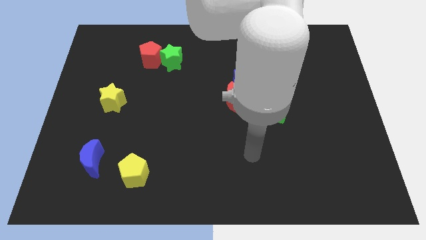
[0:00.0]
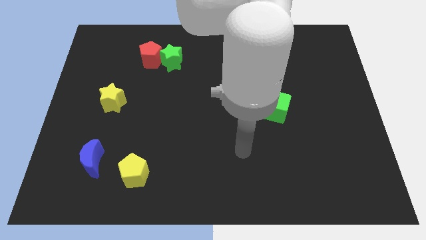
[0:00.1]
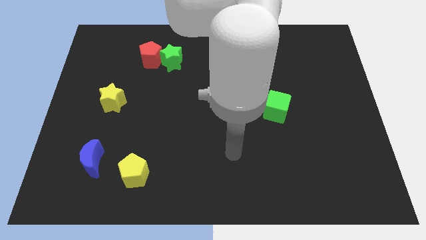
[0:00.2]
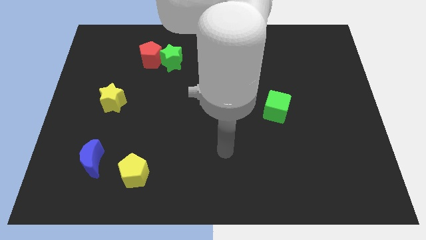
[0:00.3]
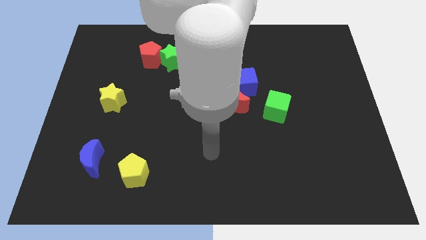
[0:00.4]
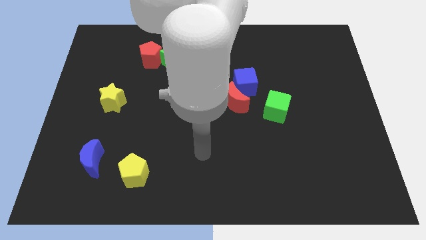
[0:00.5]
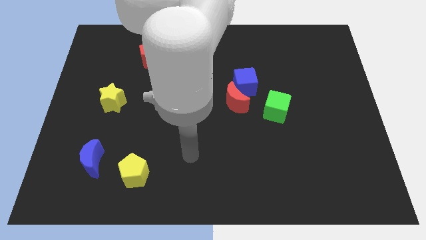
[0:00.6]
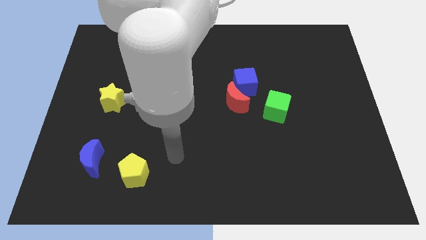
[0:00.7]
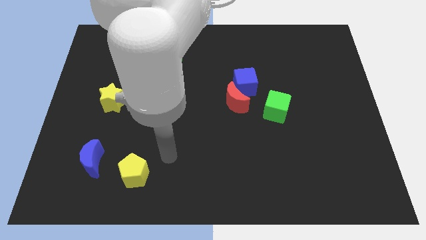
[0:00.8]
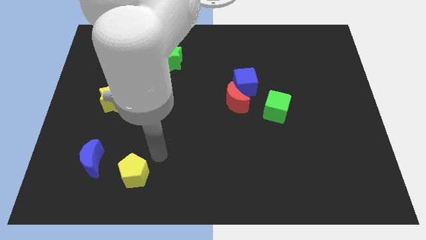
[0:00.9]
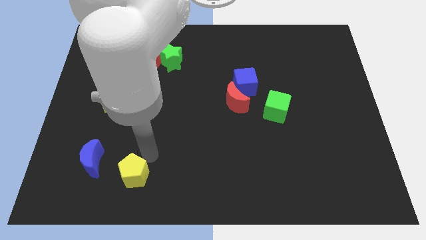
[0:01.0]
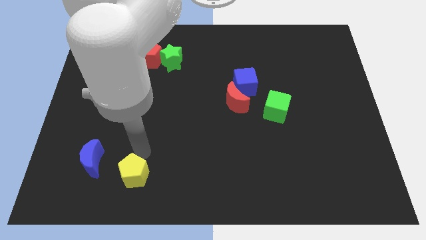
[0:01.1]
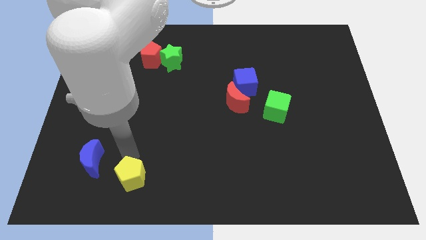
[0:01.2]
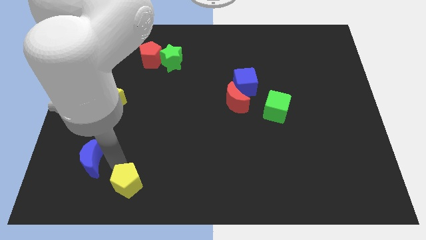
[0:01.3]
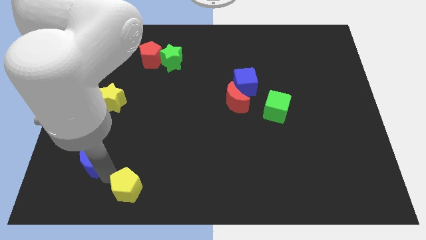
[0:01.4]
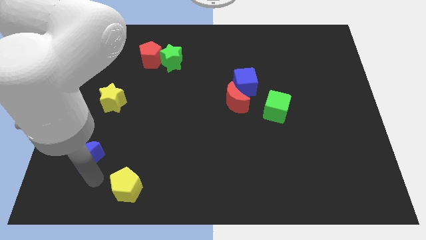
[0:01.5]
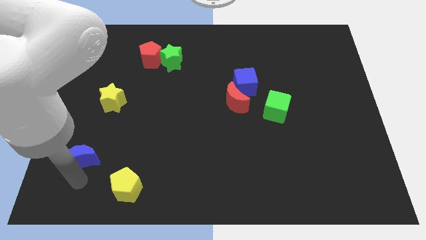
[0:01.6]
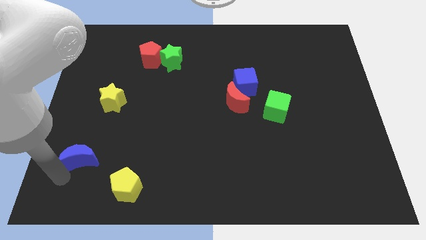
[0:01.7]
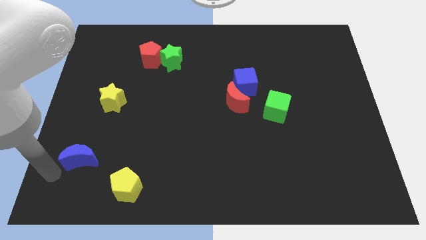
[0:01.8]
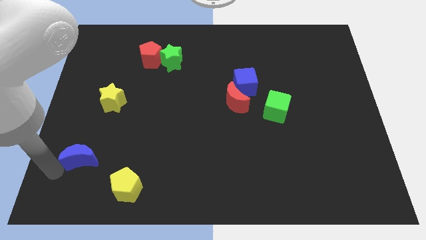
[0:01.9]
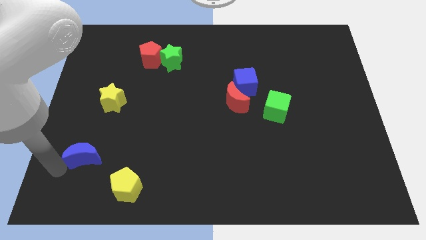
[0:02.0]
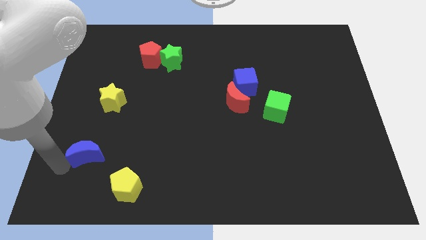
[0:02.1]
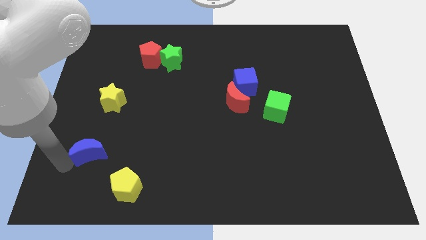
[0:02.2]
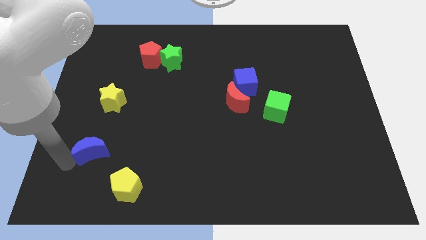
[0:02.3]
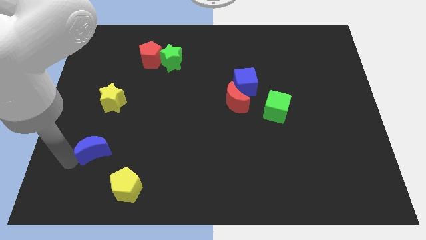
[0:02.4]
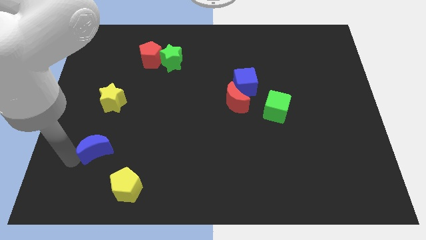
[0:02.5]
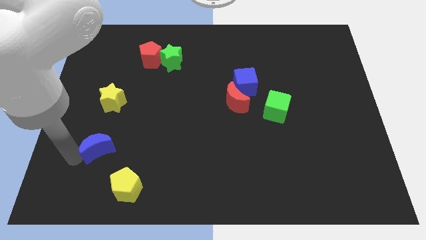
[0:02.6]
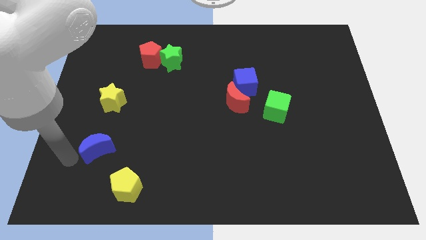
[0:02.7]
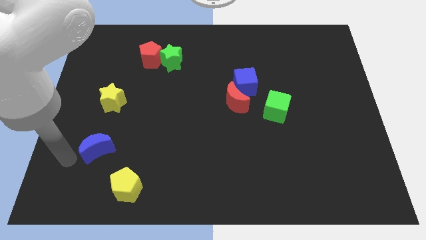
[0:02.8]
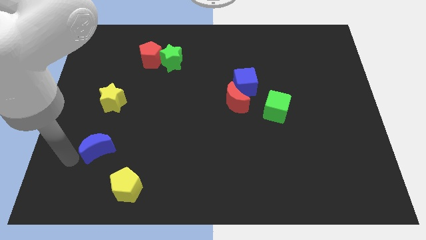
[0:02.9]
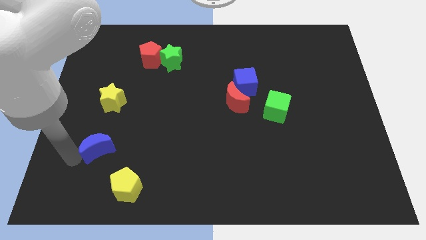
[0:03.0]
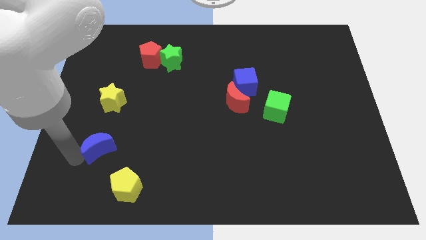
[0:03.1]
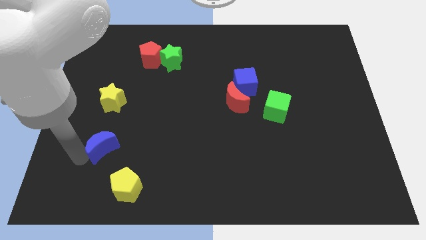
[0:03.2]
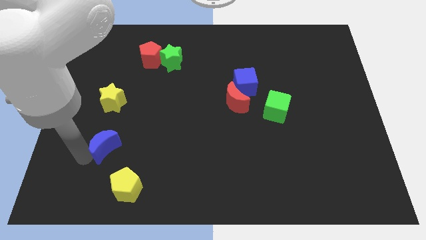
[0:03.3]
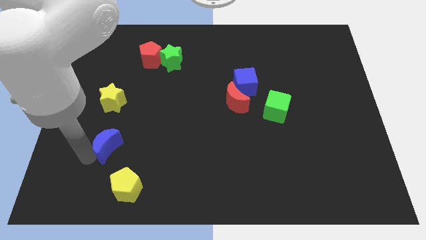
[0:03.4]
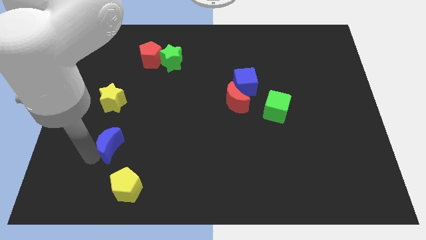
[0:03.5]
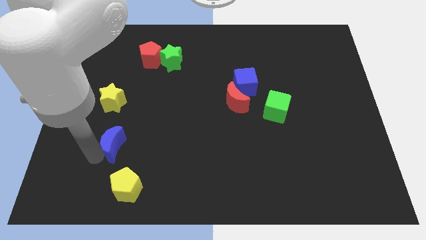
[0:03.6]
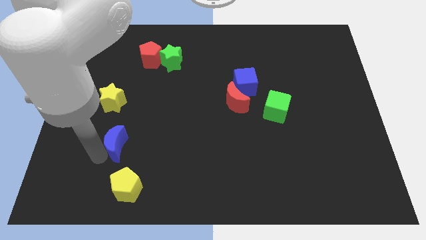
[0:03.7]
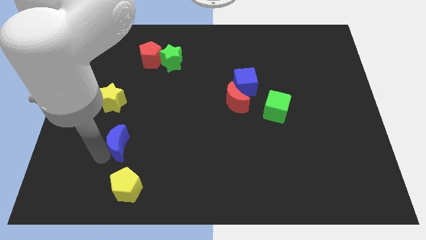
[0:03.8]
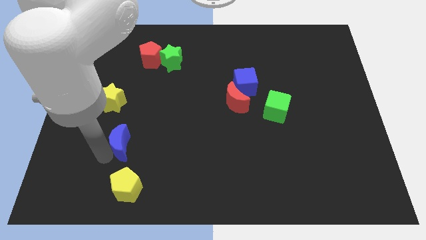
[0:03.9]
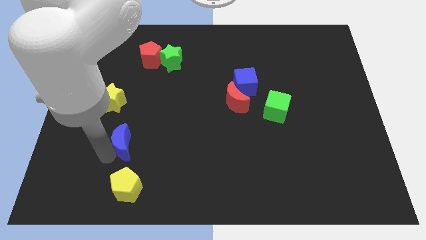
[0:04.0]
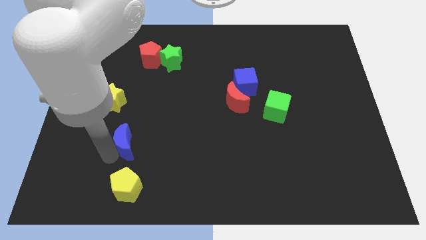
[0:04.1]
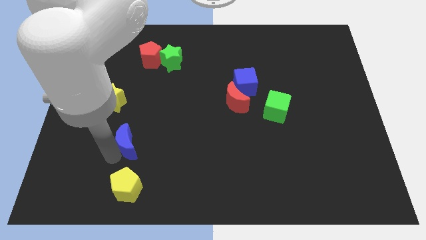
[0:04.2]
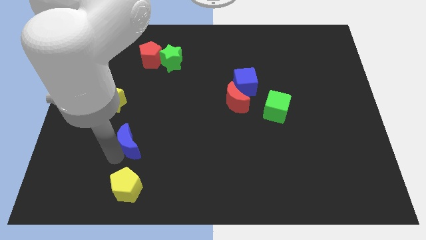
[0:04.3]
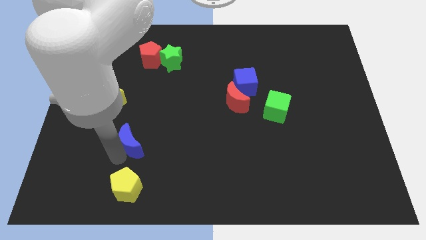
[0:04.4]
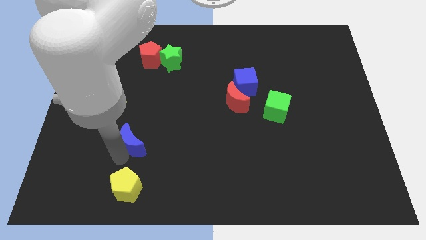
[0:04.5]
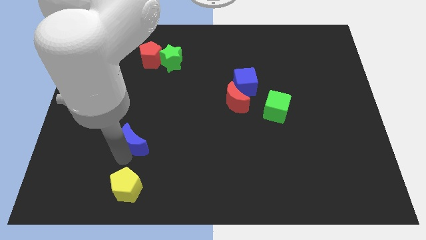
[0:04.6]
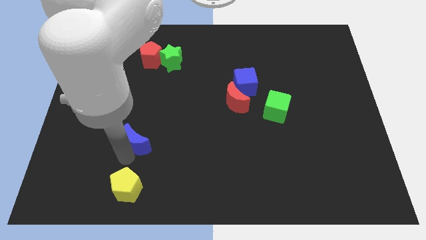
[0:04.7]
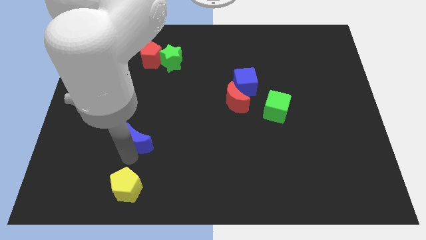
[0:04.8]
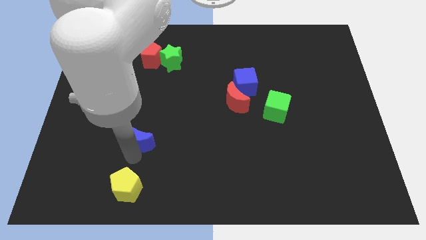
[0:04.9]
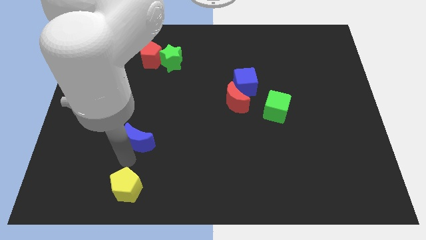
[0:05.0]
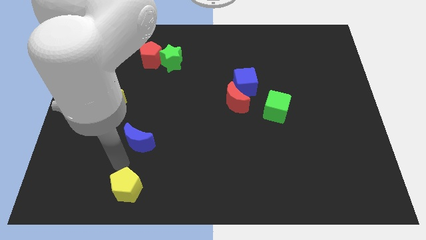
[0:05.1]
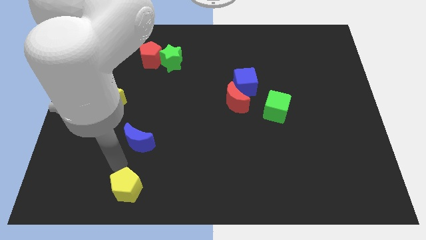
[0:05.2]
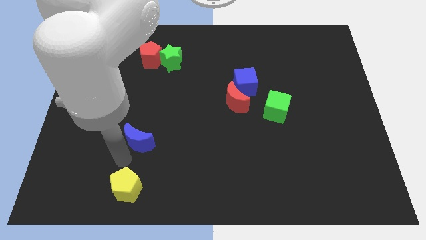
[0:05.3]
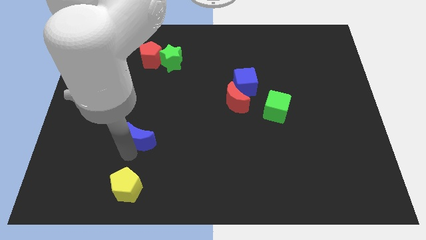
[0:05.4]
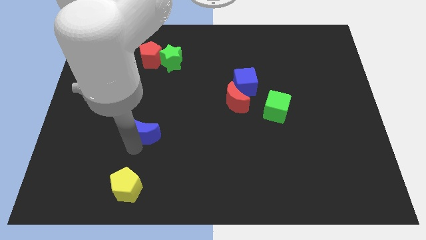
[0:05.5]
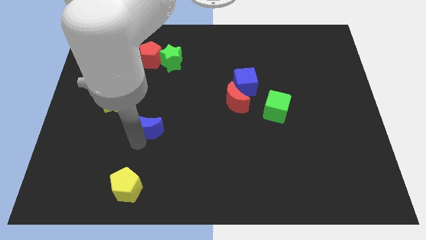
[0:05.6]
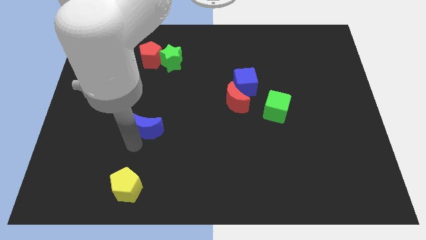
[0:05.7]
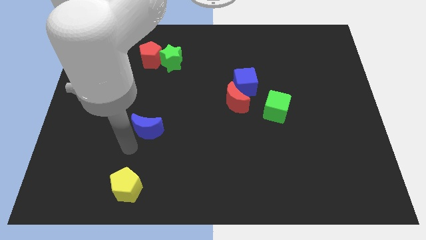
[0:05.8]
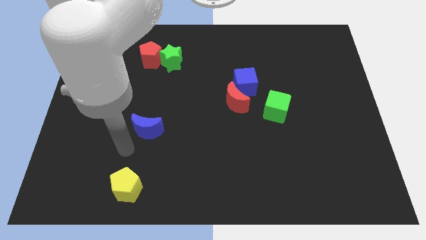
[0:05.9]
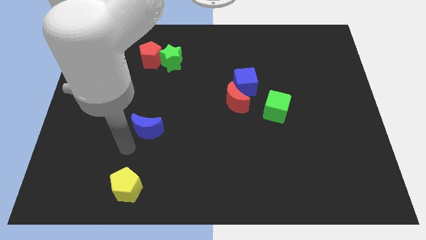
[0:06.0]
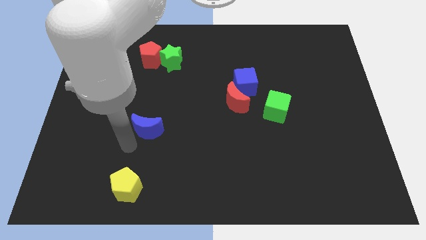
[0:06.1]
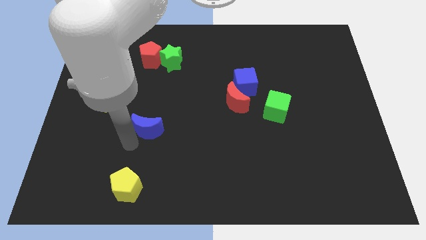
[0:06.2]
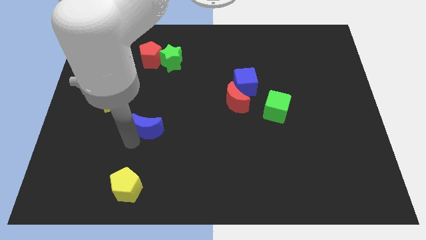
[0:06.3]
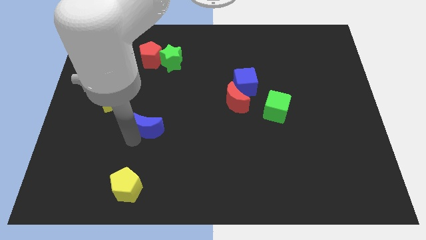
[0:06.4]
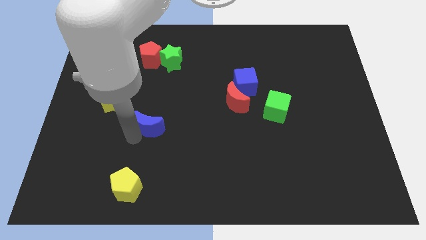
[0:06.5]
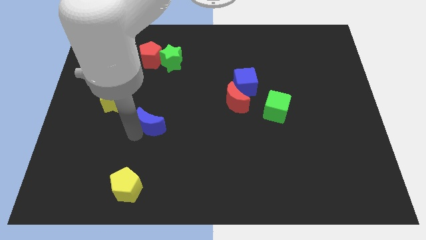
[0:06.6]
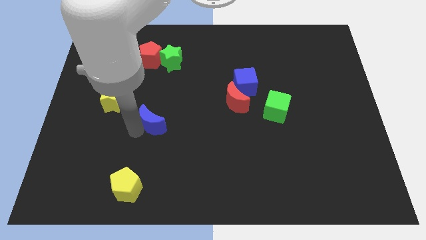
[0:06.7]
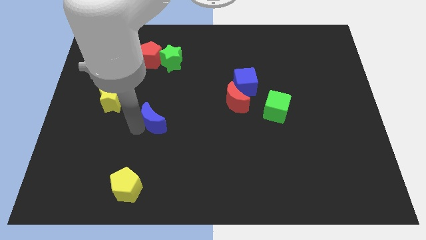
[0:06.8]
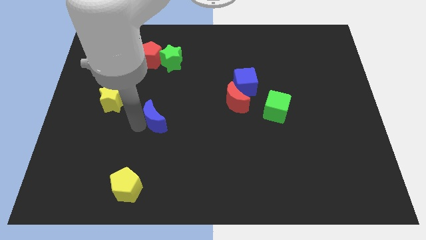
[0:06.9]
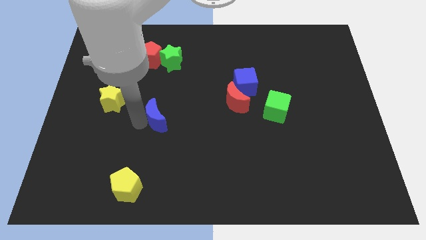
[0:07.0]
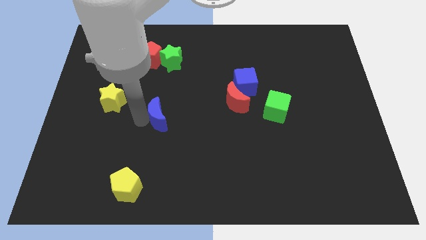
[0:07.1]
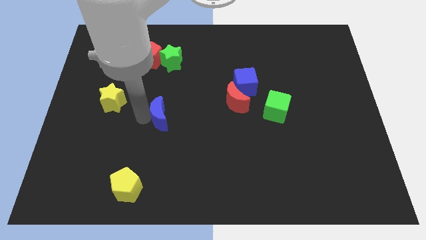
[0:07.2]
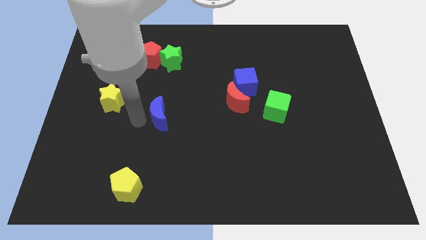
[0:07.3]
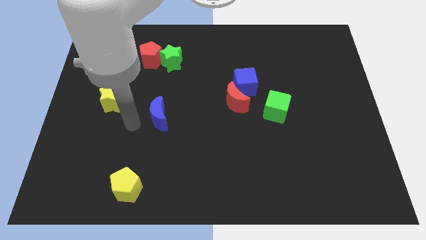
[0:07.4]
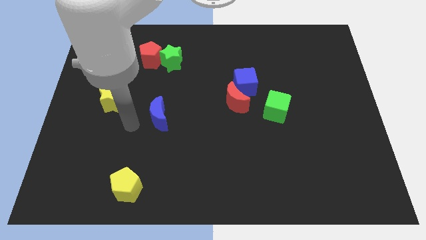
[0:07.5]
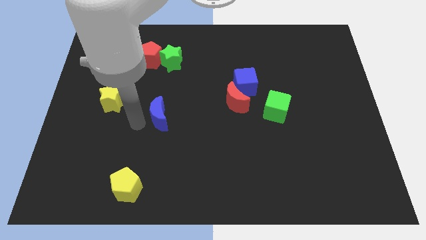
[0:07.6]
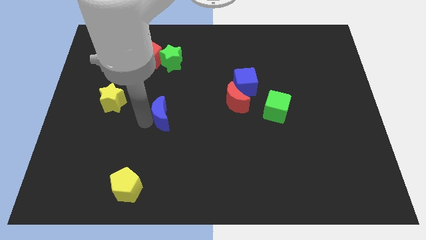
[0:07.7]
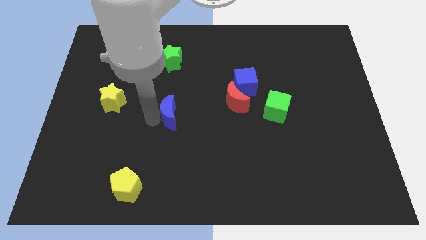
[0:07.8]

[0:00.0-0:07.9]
move the blue moon to the center
